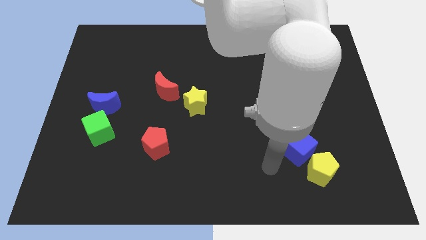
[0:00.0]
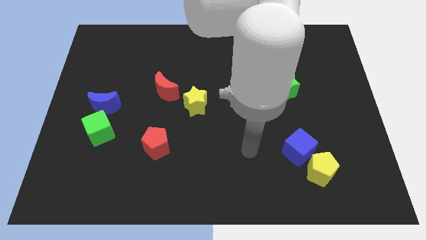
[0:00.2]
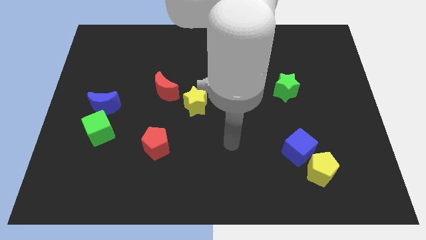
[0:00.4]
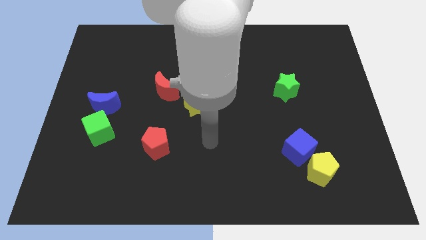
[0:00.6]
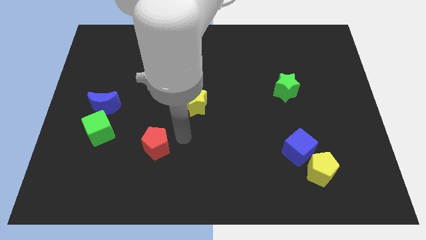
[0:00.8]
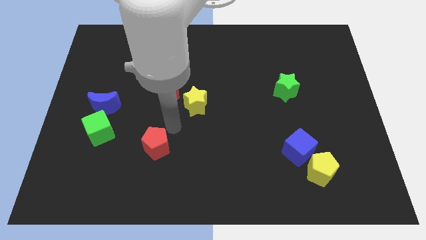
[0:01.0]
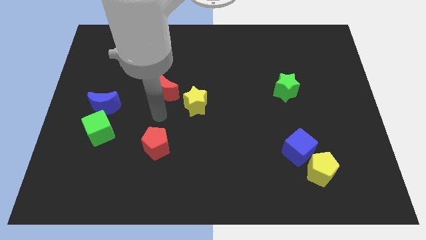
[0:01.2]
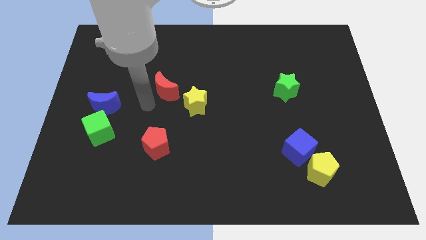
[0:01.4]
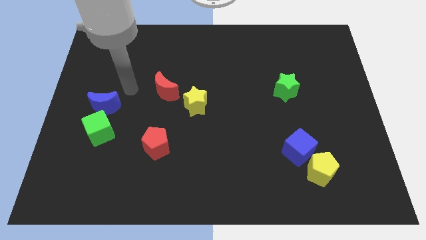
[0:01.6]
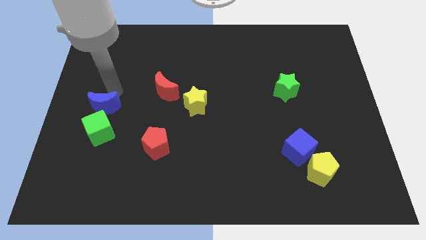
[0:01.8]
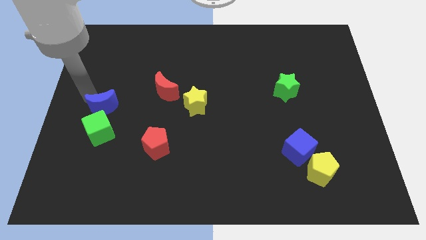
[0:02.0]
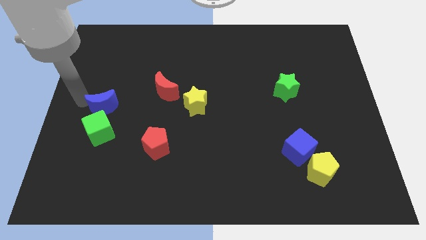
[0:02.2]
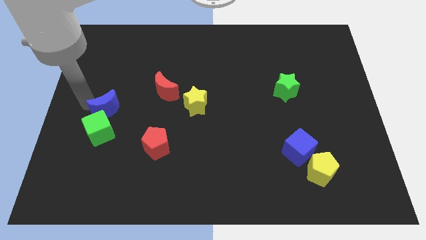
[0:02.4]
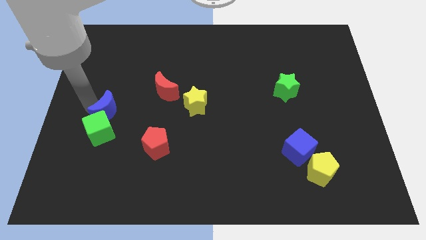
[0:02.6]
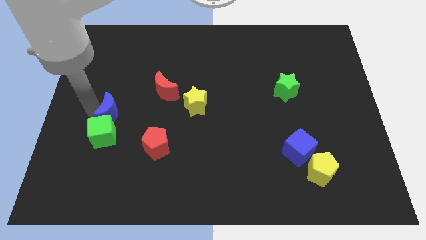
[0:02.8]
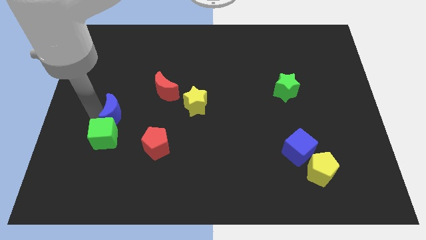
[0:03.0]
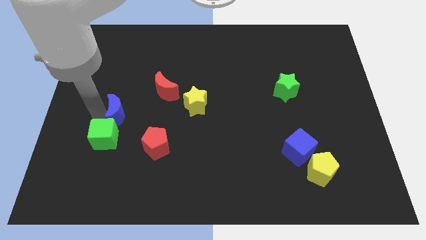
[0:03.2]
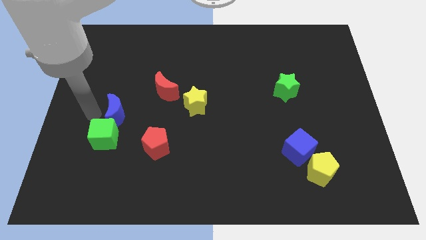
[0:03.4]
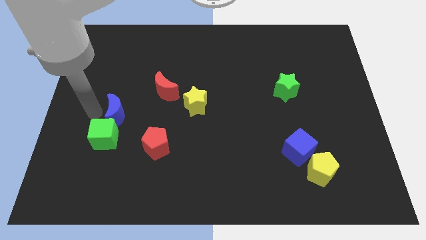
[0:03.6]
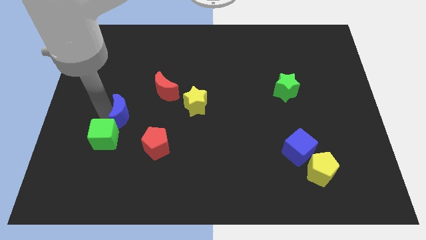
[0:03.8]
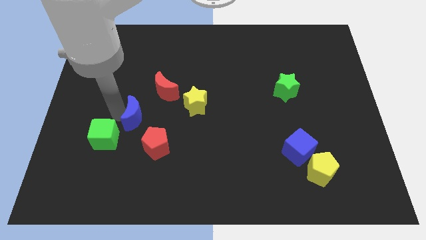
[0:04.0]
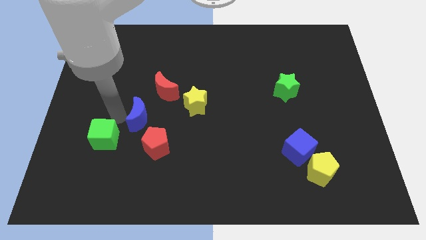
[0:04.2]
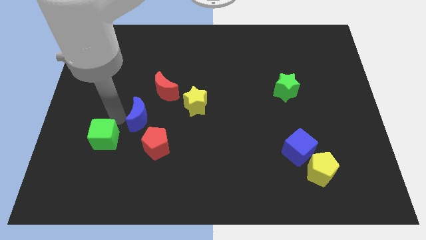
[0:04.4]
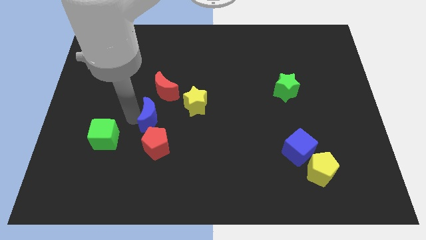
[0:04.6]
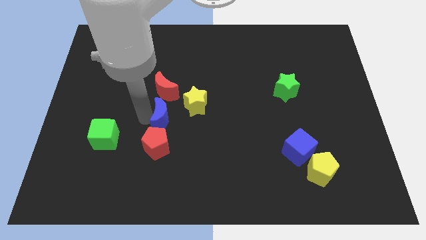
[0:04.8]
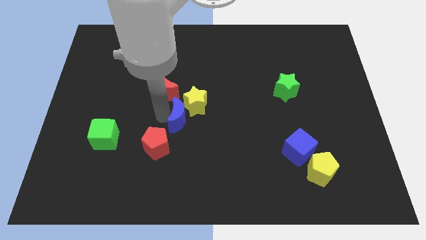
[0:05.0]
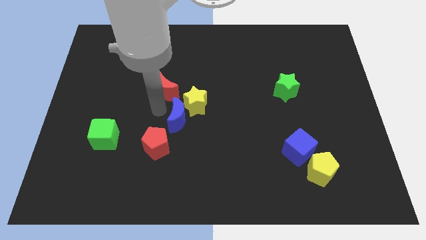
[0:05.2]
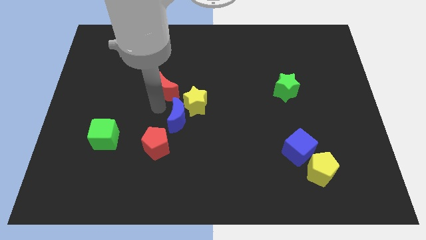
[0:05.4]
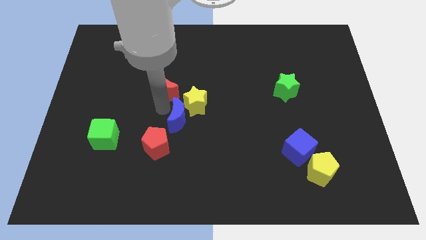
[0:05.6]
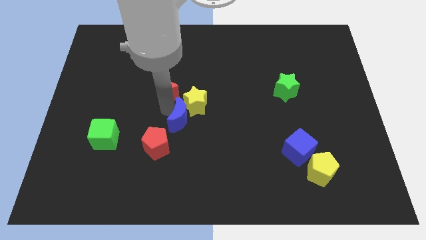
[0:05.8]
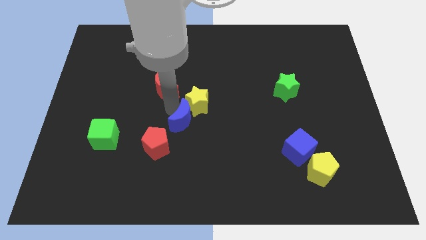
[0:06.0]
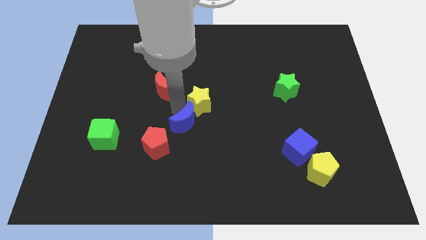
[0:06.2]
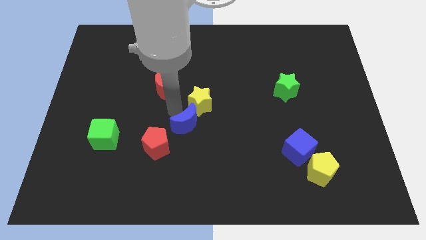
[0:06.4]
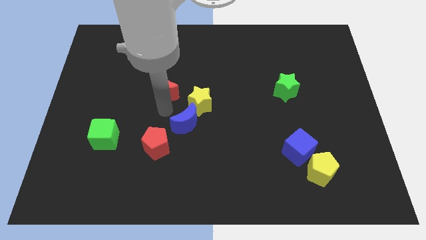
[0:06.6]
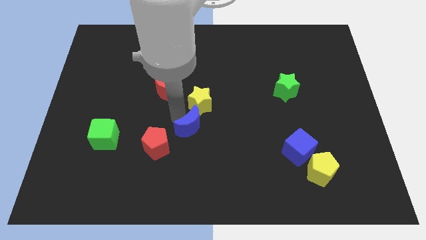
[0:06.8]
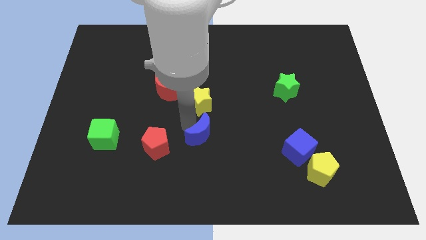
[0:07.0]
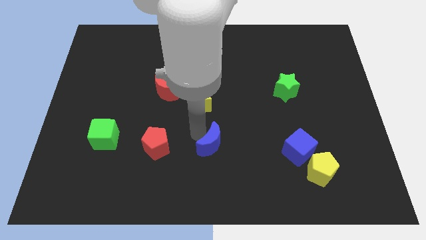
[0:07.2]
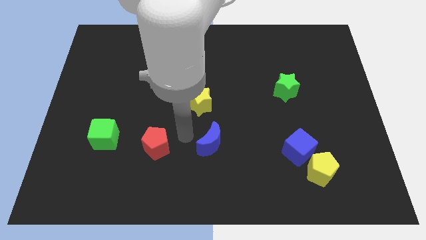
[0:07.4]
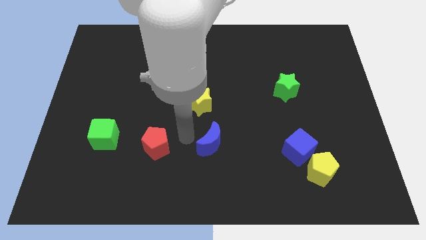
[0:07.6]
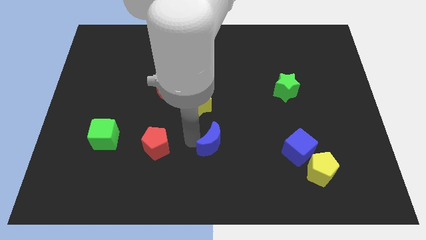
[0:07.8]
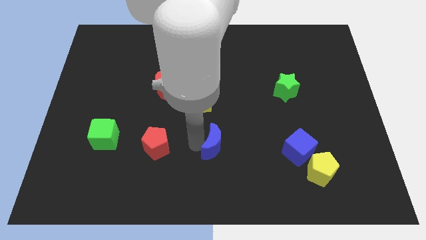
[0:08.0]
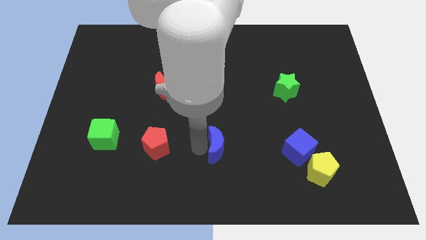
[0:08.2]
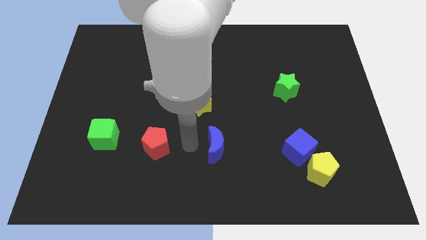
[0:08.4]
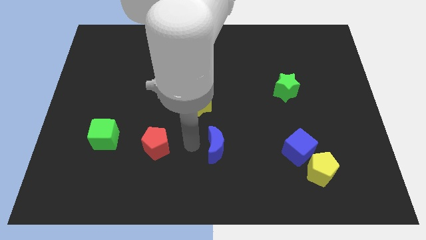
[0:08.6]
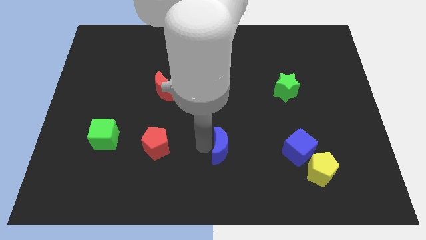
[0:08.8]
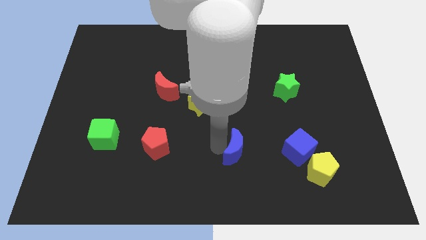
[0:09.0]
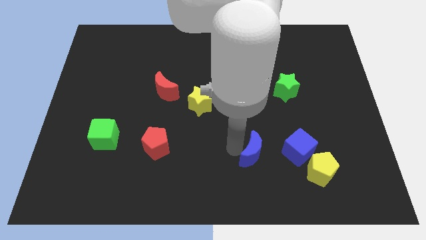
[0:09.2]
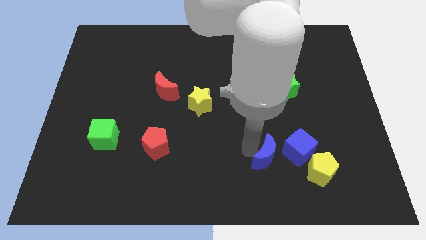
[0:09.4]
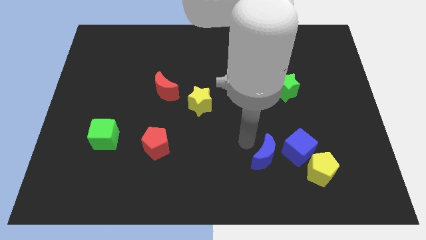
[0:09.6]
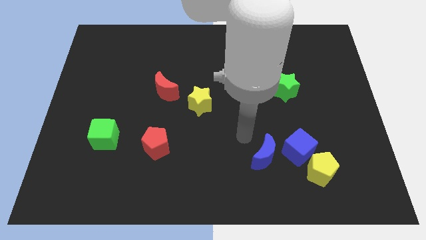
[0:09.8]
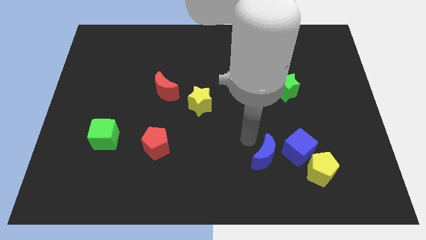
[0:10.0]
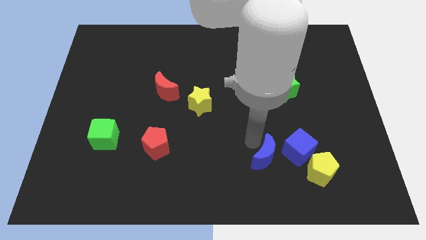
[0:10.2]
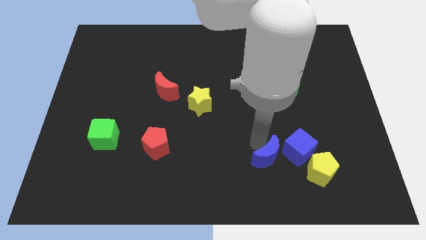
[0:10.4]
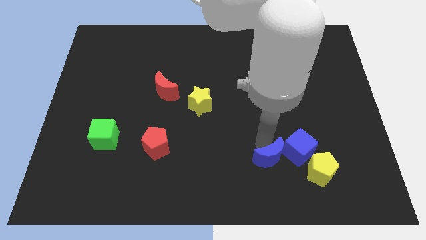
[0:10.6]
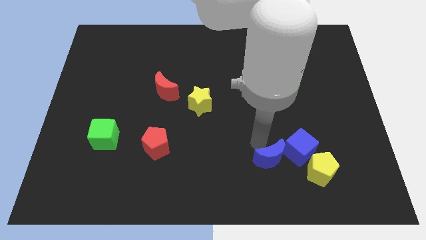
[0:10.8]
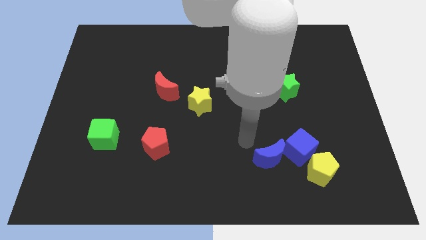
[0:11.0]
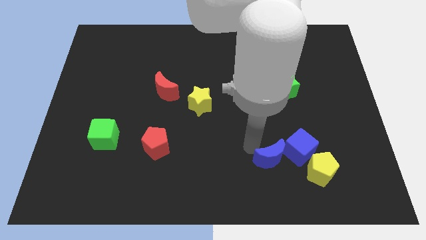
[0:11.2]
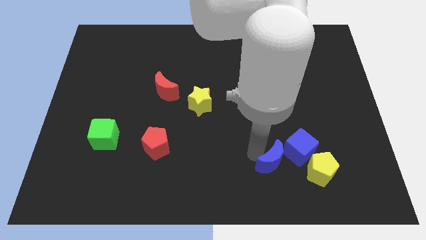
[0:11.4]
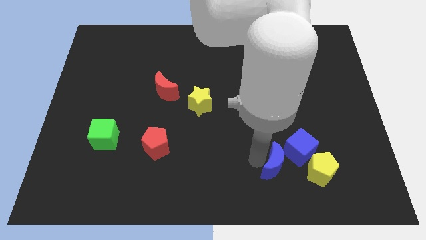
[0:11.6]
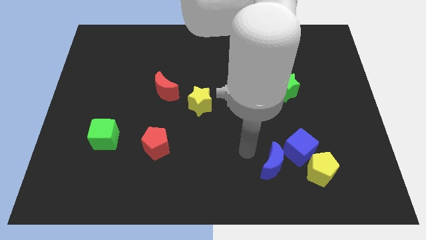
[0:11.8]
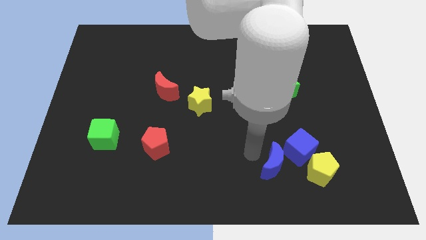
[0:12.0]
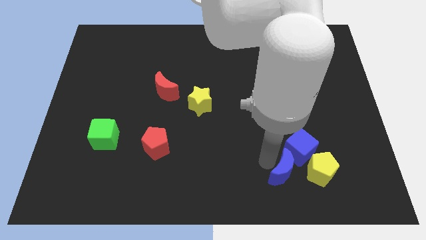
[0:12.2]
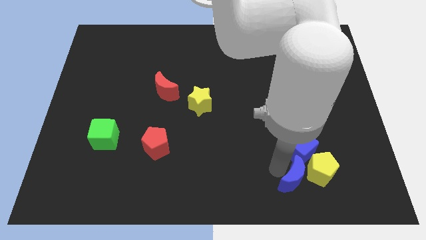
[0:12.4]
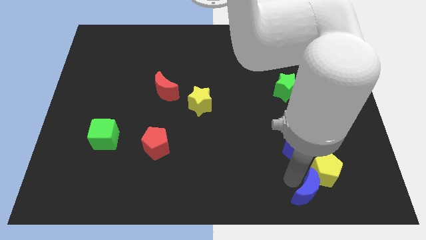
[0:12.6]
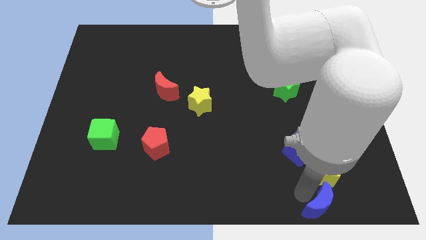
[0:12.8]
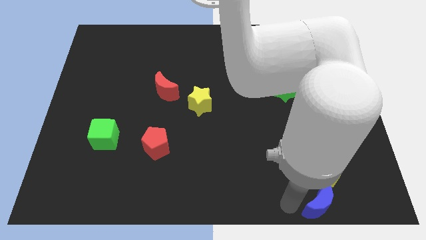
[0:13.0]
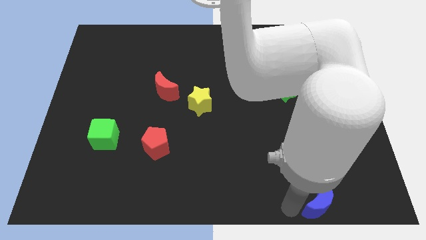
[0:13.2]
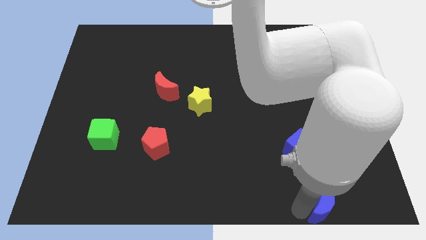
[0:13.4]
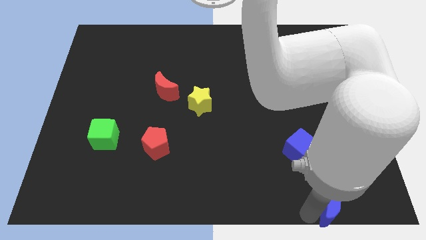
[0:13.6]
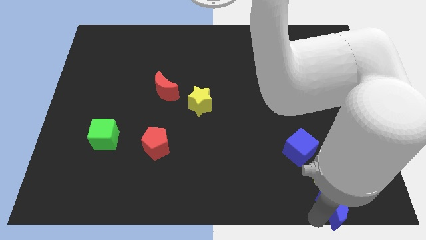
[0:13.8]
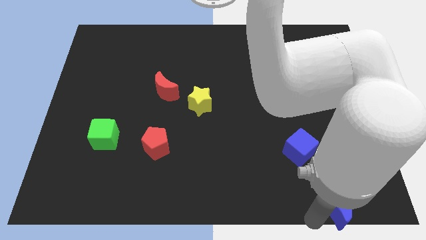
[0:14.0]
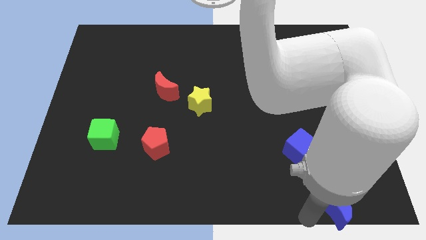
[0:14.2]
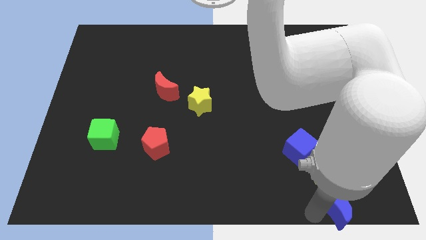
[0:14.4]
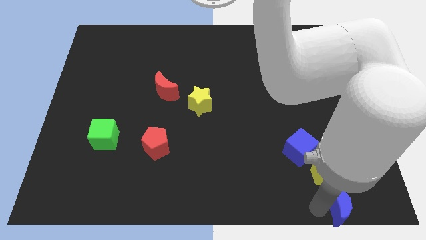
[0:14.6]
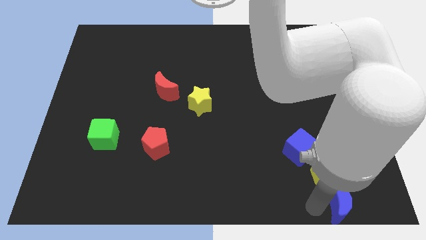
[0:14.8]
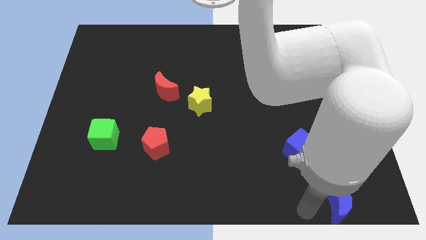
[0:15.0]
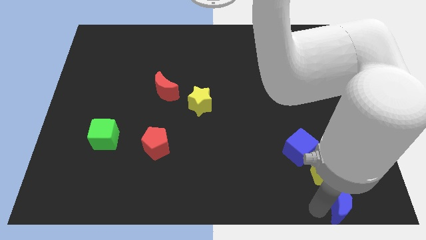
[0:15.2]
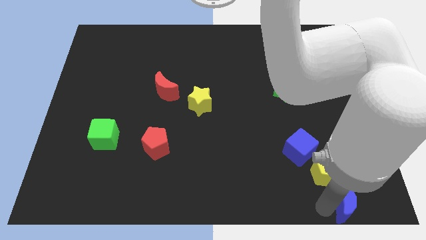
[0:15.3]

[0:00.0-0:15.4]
put the blue moon to the bottom right corner
